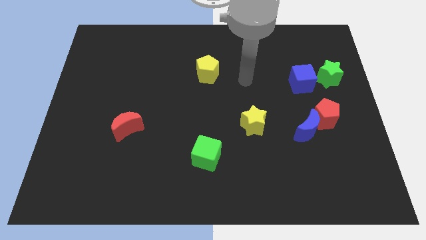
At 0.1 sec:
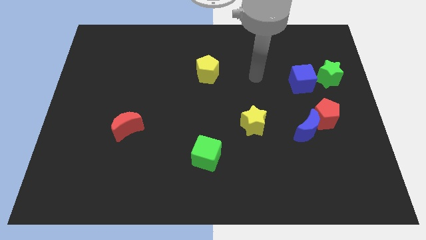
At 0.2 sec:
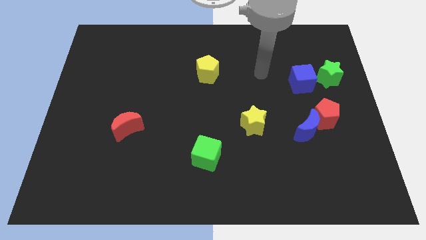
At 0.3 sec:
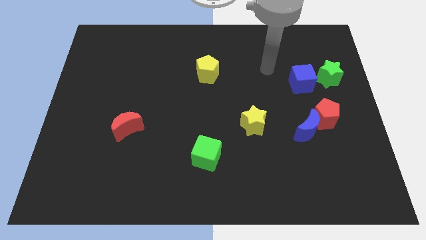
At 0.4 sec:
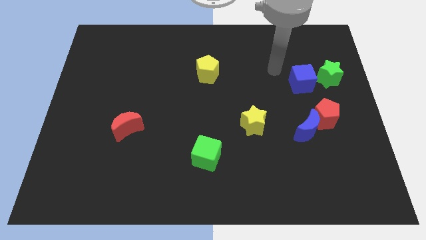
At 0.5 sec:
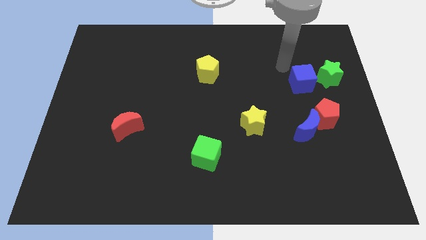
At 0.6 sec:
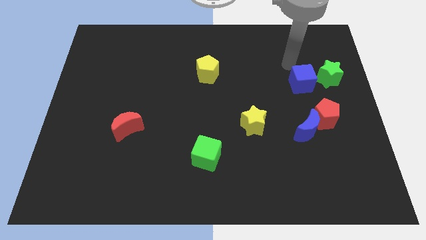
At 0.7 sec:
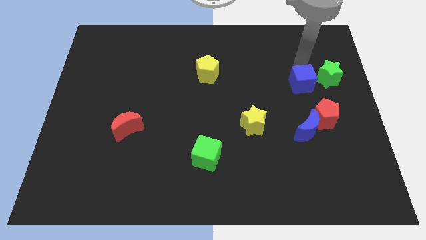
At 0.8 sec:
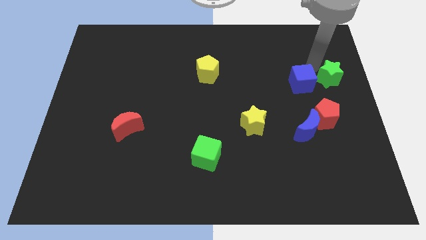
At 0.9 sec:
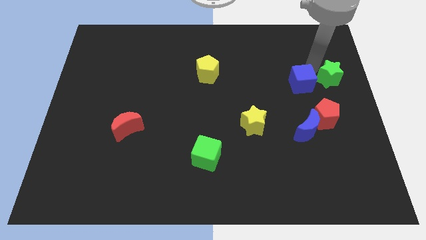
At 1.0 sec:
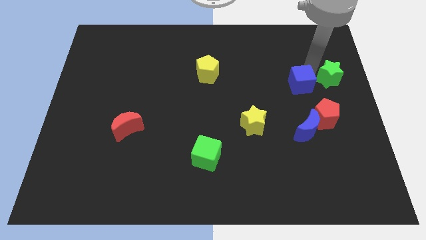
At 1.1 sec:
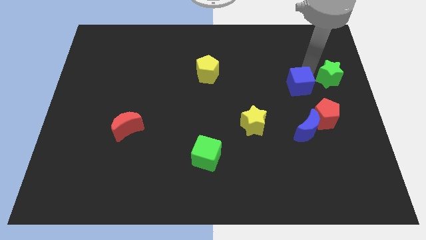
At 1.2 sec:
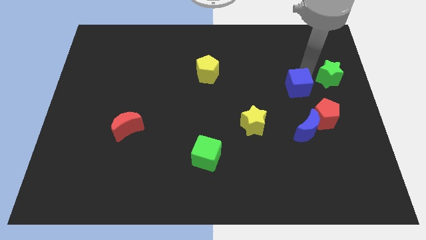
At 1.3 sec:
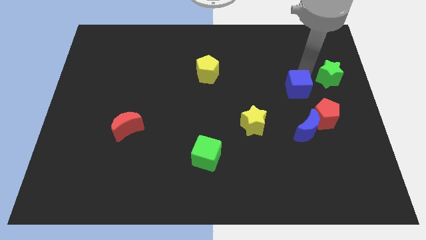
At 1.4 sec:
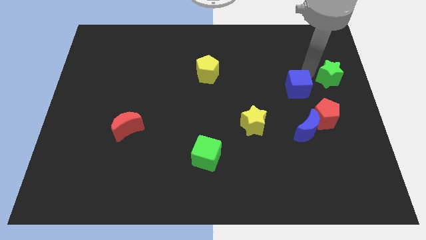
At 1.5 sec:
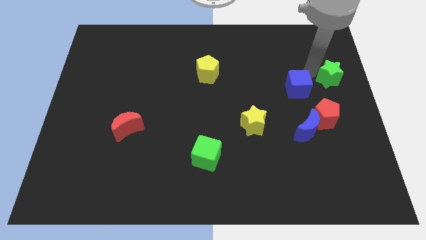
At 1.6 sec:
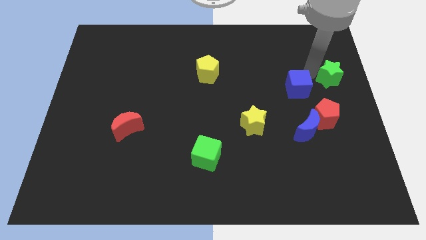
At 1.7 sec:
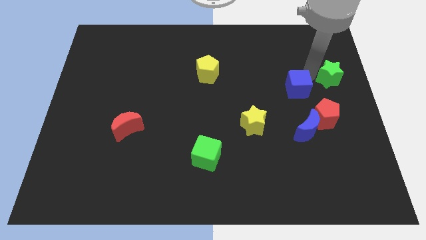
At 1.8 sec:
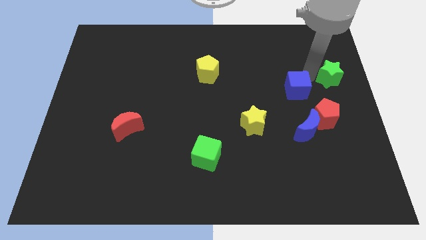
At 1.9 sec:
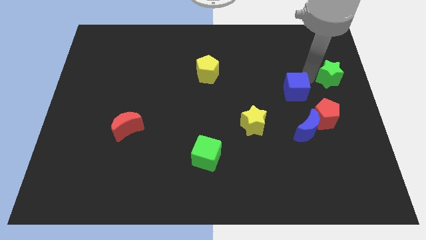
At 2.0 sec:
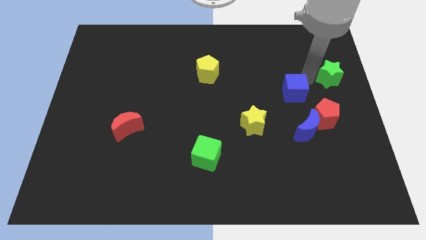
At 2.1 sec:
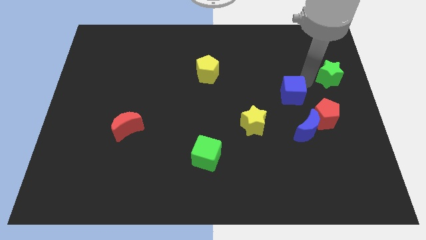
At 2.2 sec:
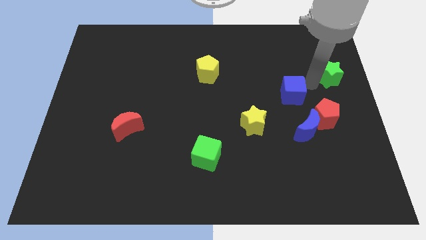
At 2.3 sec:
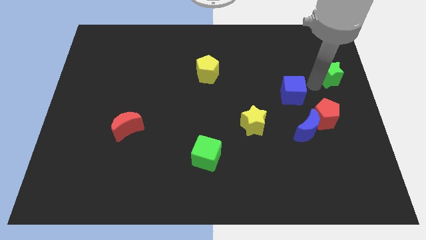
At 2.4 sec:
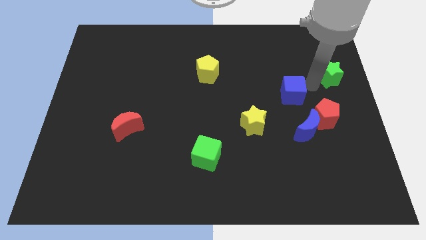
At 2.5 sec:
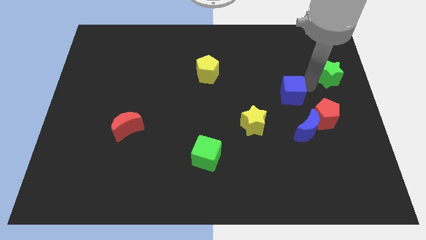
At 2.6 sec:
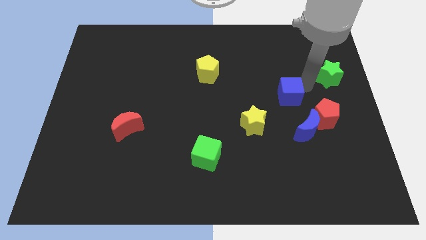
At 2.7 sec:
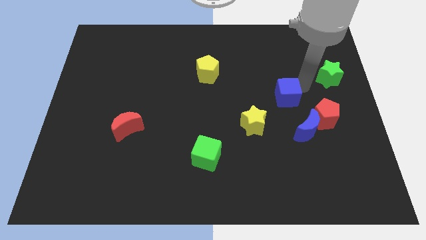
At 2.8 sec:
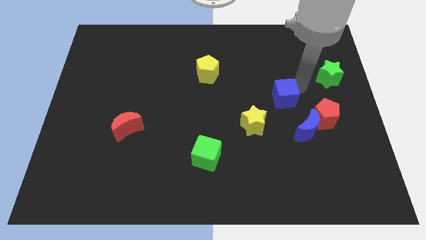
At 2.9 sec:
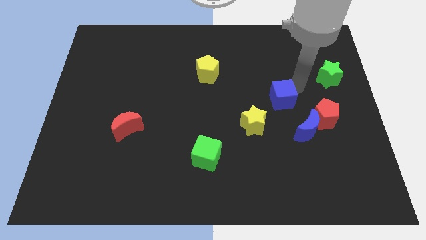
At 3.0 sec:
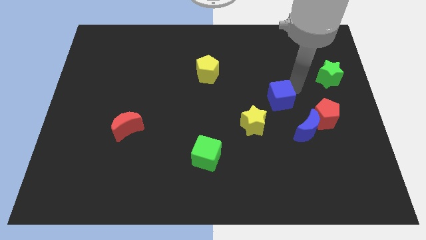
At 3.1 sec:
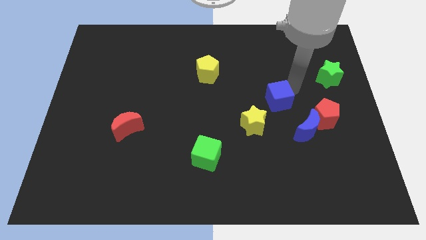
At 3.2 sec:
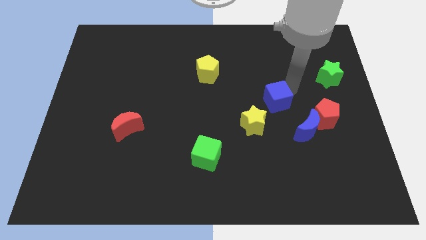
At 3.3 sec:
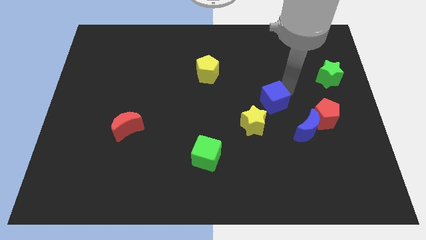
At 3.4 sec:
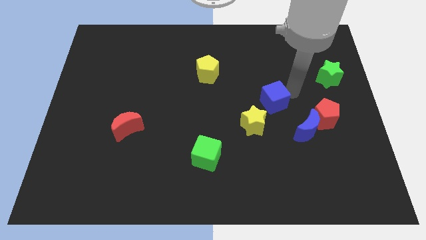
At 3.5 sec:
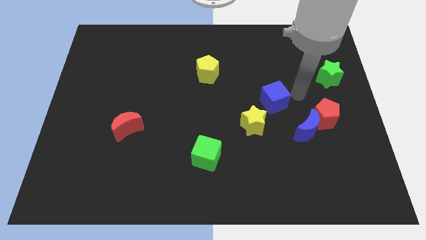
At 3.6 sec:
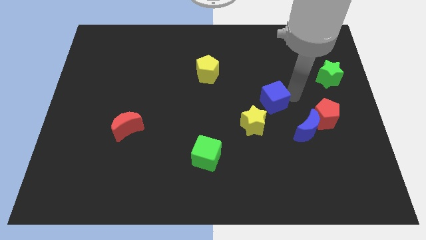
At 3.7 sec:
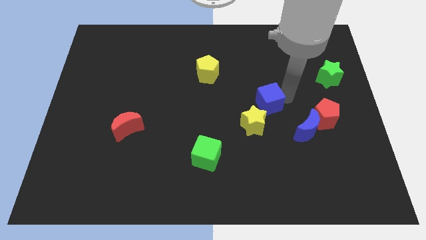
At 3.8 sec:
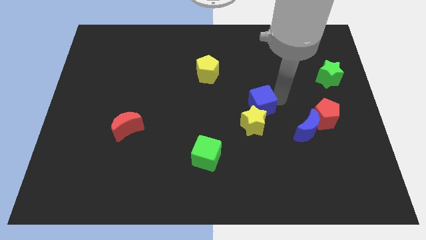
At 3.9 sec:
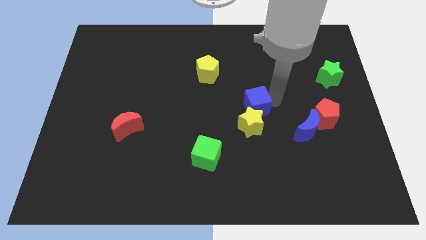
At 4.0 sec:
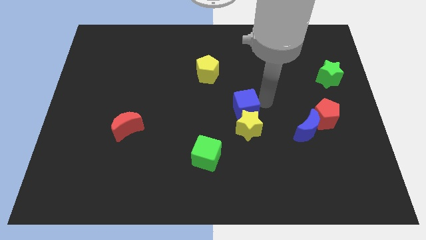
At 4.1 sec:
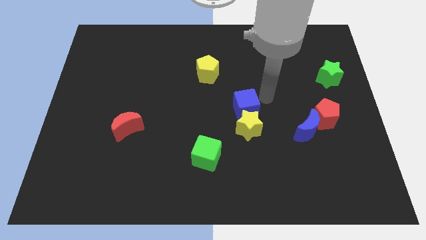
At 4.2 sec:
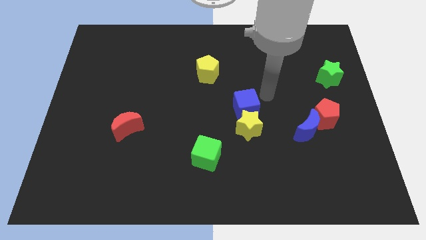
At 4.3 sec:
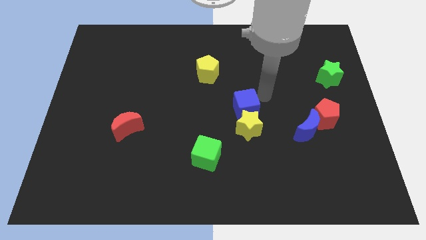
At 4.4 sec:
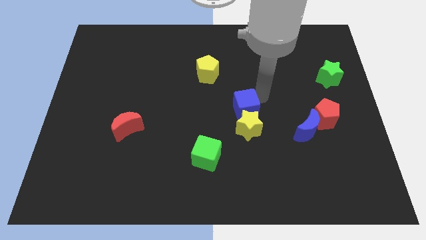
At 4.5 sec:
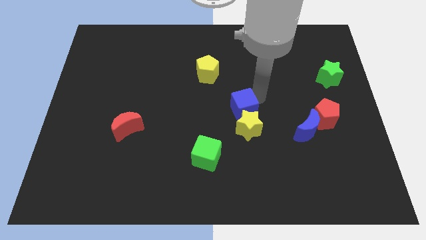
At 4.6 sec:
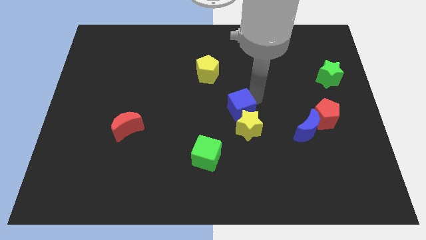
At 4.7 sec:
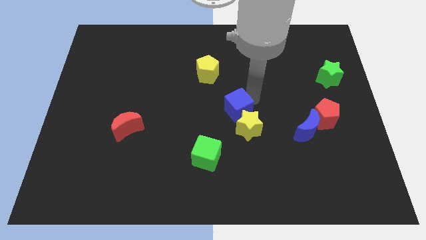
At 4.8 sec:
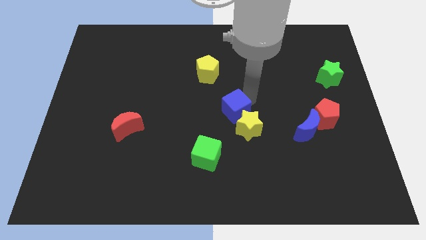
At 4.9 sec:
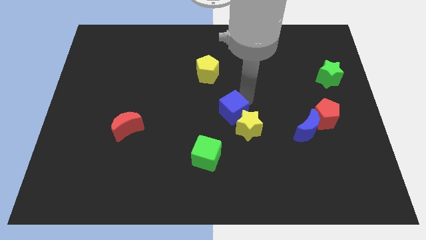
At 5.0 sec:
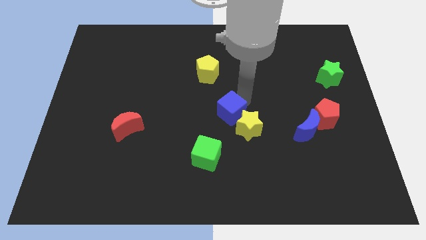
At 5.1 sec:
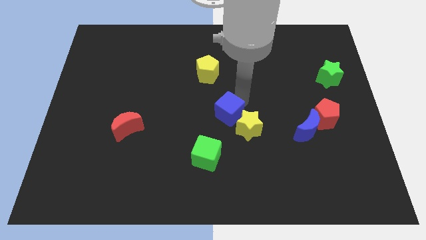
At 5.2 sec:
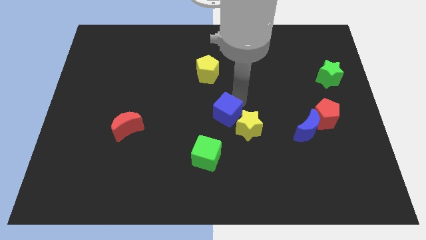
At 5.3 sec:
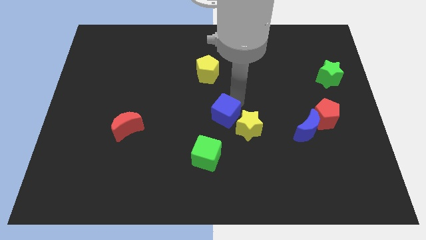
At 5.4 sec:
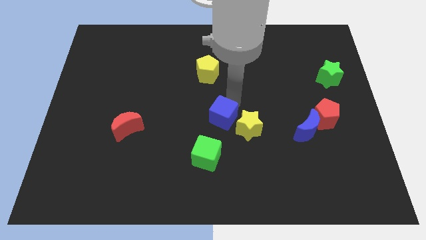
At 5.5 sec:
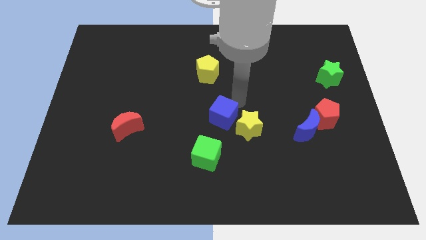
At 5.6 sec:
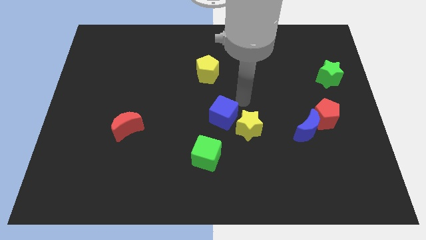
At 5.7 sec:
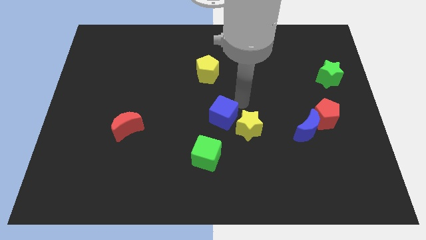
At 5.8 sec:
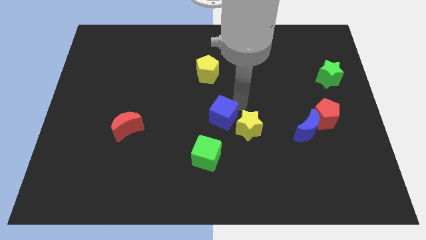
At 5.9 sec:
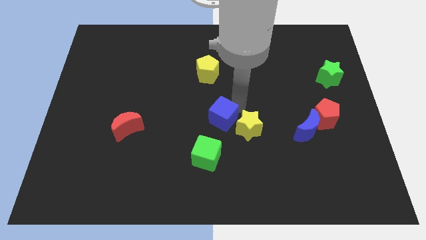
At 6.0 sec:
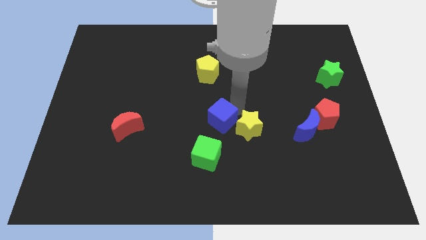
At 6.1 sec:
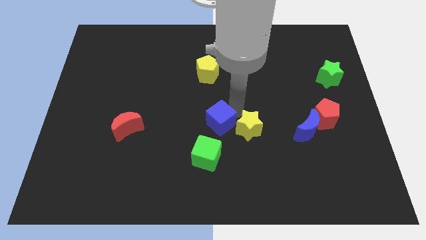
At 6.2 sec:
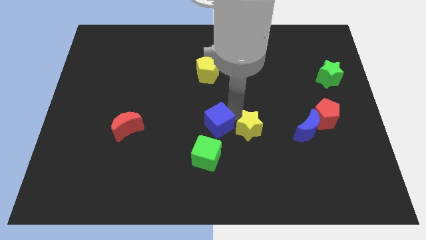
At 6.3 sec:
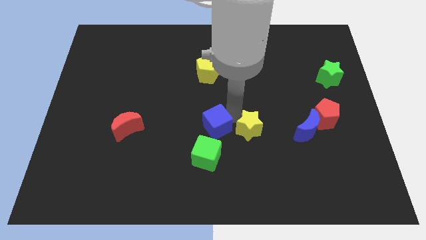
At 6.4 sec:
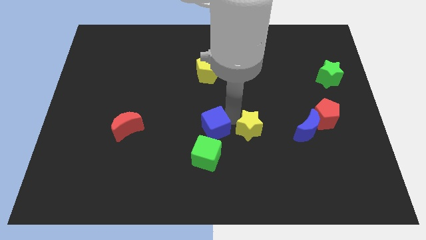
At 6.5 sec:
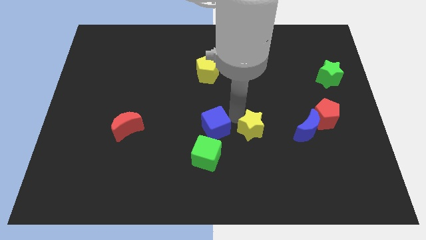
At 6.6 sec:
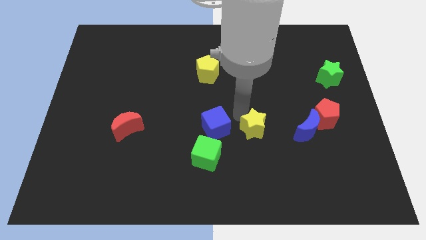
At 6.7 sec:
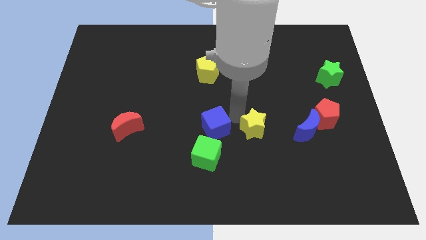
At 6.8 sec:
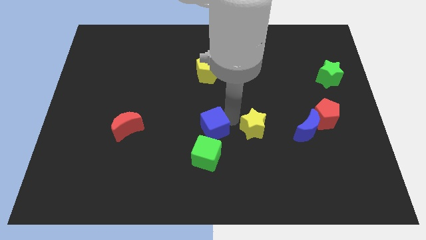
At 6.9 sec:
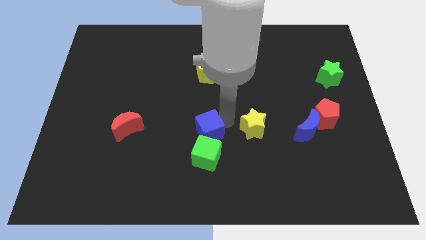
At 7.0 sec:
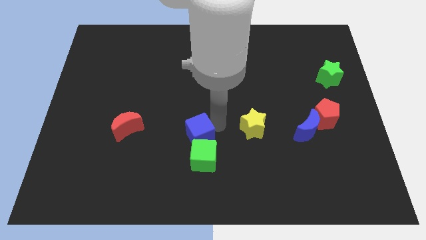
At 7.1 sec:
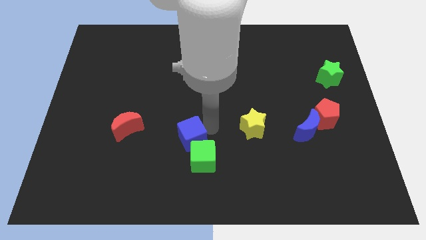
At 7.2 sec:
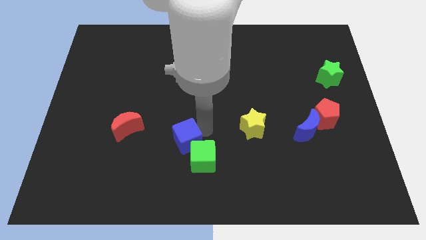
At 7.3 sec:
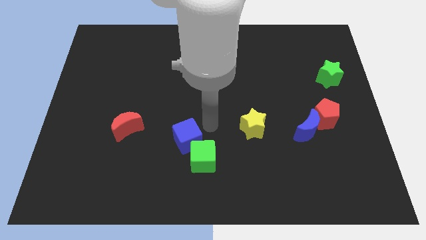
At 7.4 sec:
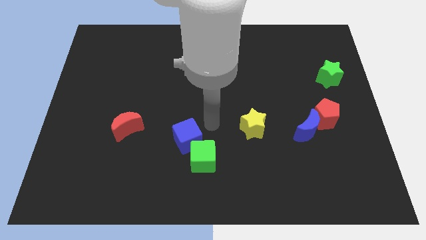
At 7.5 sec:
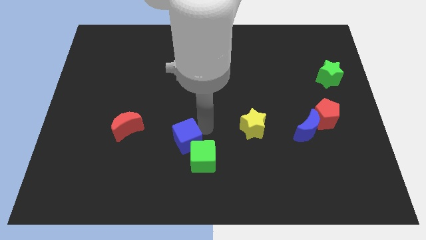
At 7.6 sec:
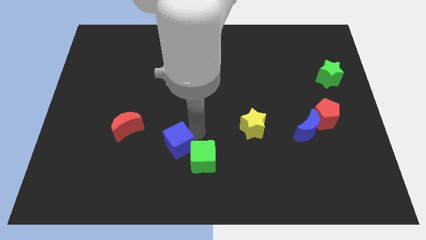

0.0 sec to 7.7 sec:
put the blue cube left of the green cube
